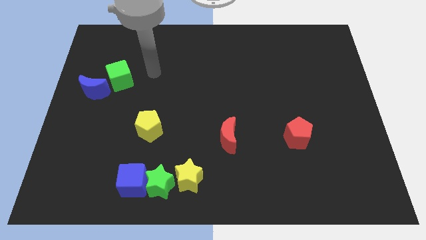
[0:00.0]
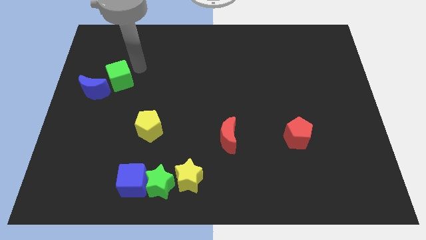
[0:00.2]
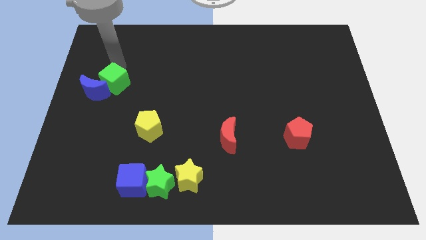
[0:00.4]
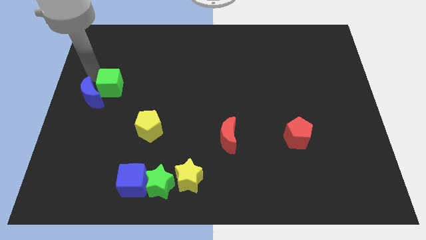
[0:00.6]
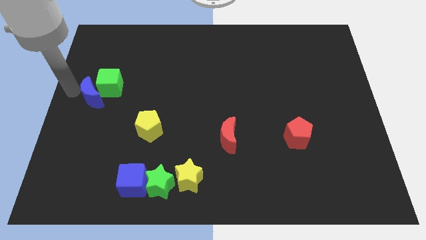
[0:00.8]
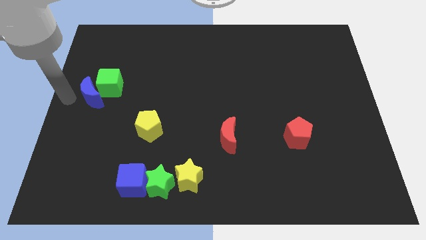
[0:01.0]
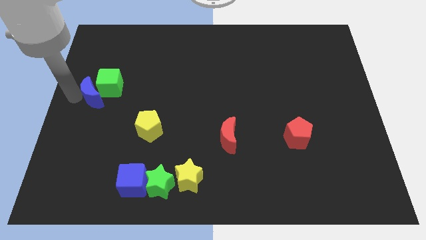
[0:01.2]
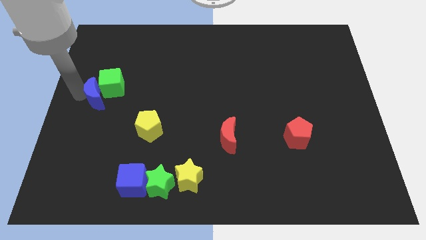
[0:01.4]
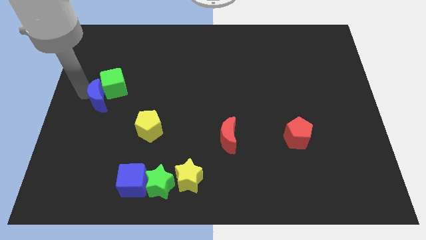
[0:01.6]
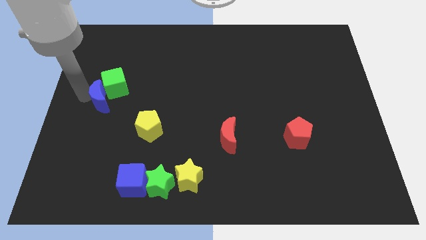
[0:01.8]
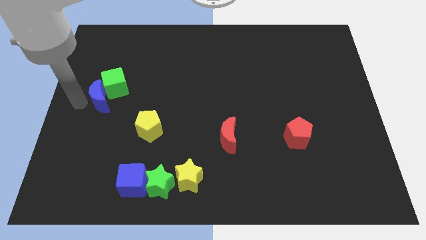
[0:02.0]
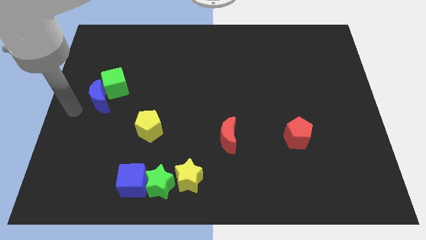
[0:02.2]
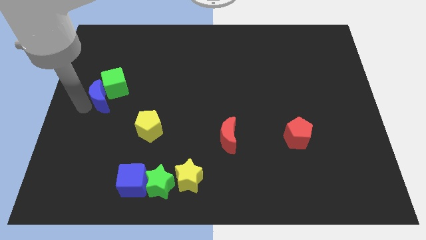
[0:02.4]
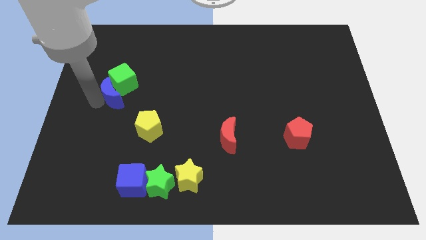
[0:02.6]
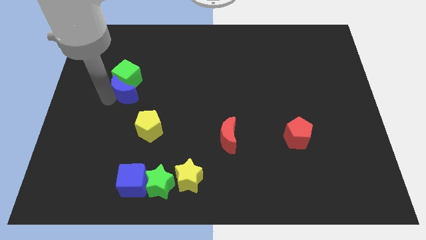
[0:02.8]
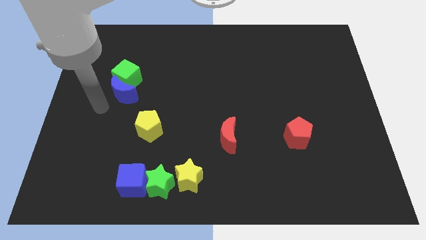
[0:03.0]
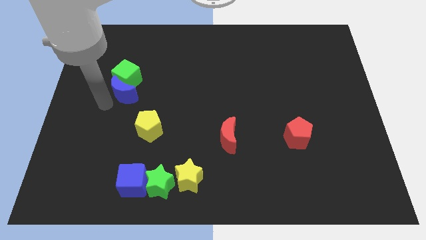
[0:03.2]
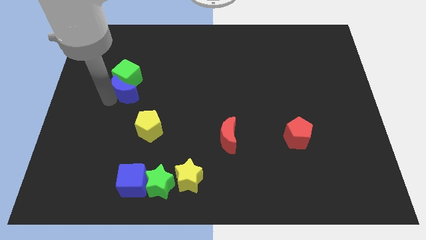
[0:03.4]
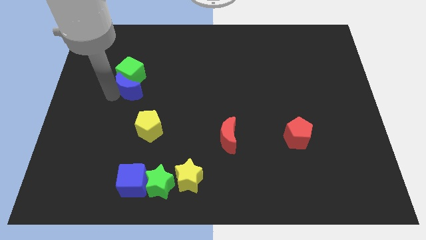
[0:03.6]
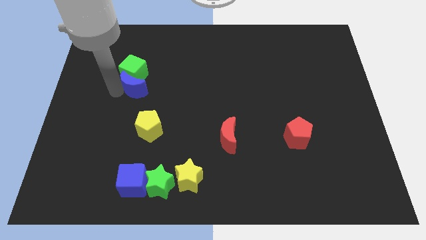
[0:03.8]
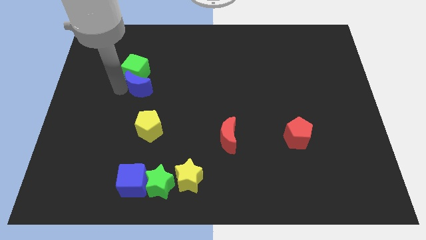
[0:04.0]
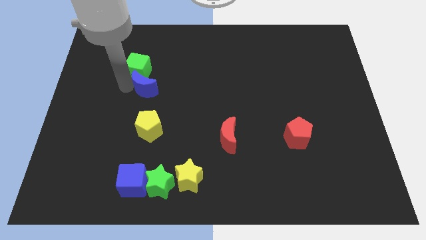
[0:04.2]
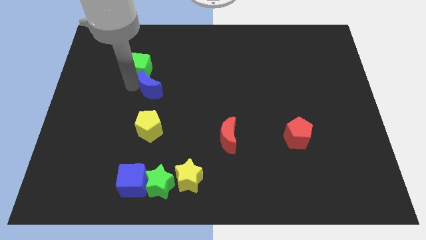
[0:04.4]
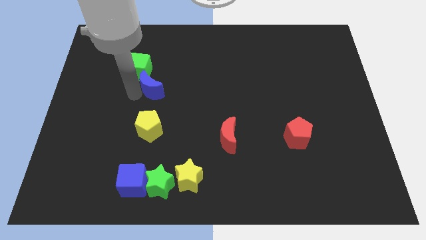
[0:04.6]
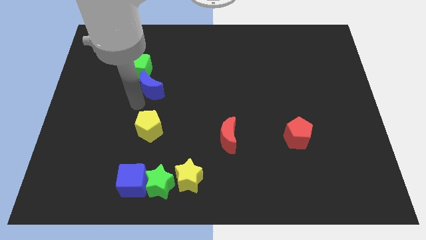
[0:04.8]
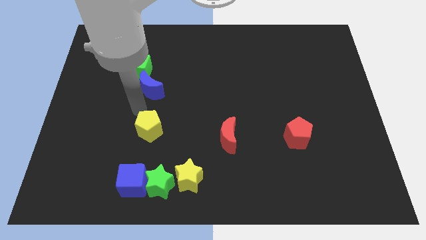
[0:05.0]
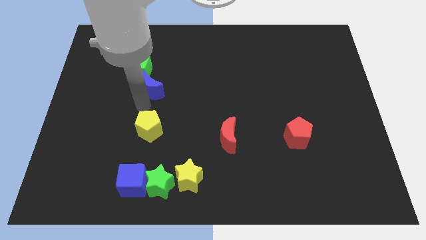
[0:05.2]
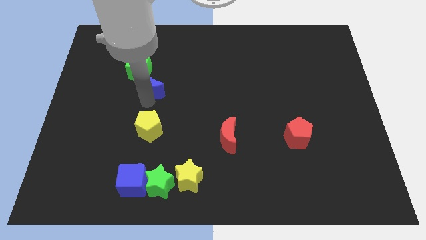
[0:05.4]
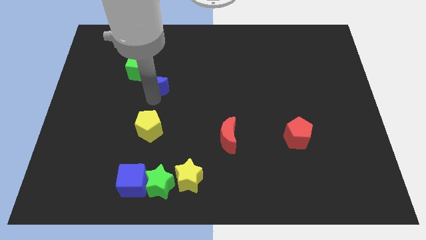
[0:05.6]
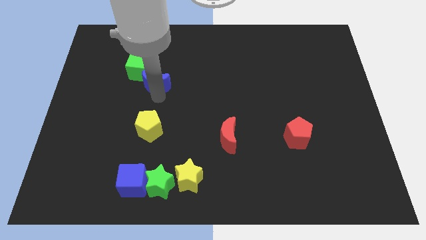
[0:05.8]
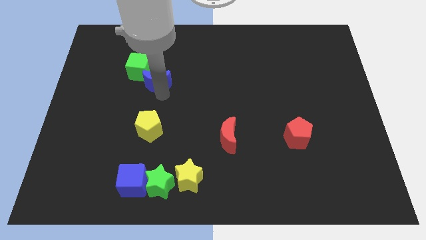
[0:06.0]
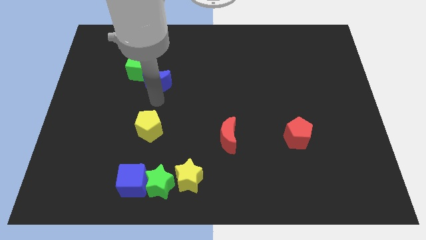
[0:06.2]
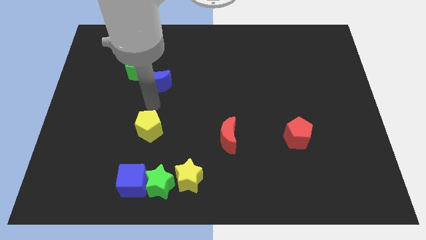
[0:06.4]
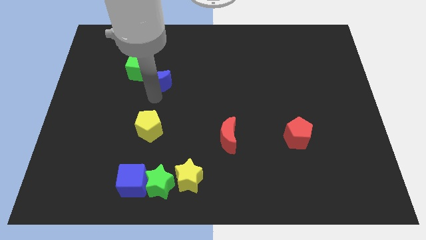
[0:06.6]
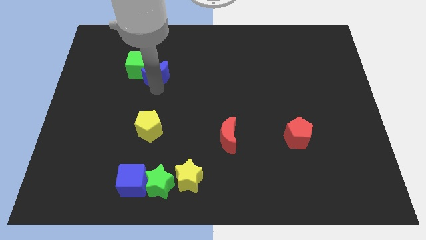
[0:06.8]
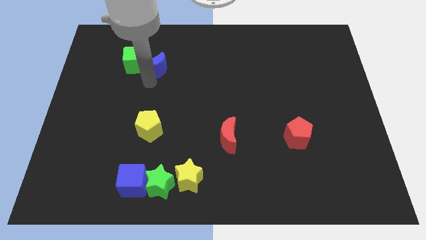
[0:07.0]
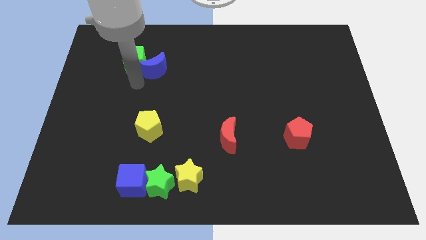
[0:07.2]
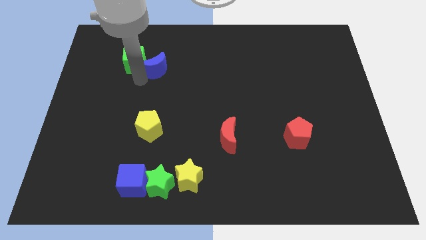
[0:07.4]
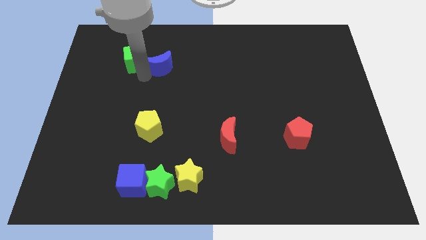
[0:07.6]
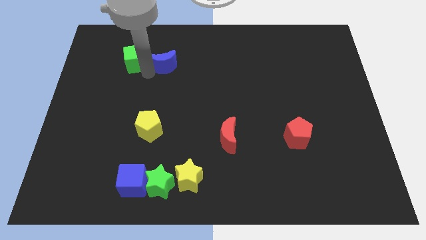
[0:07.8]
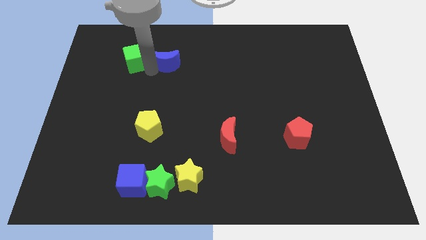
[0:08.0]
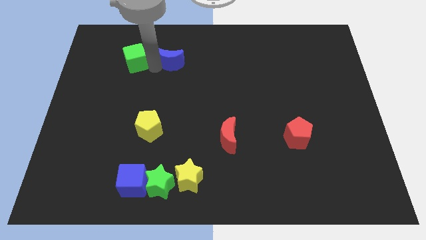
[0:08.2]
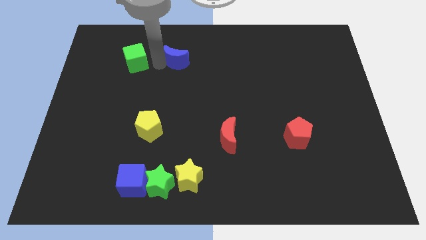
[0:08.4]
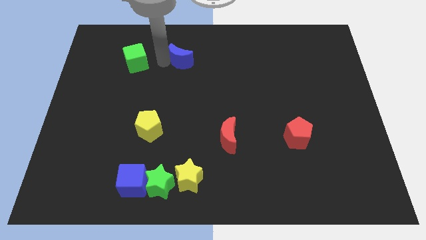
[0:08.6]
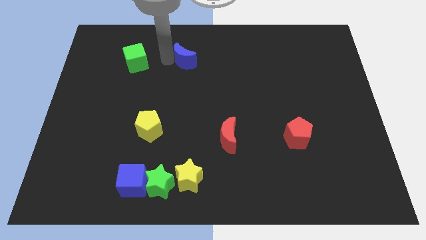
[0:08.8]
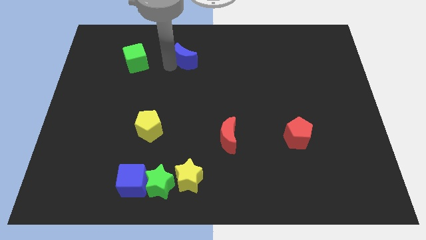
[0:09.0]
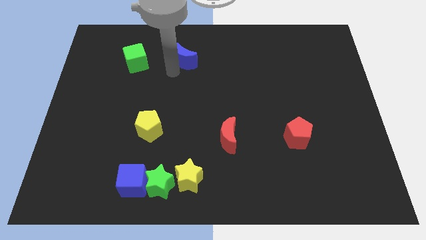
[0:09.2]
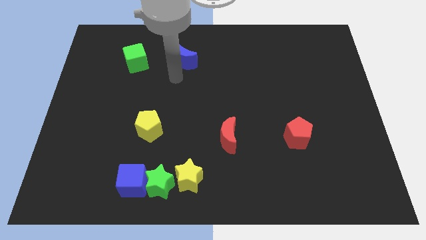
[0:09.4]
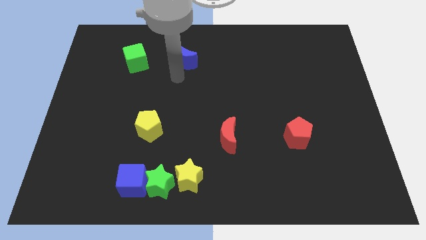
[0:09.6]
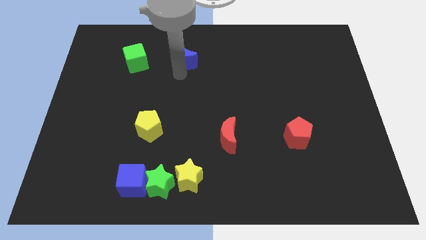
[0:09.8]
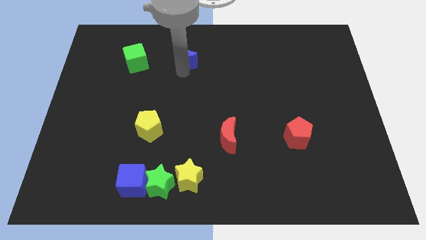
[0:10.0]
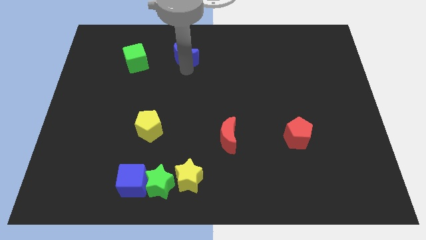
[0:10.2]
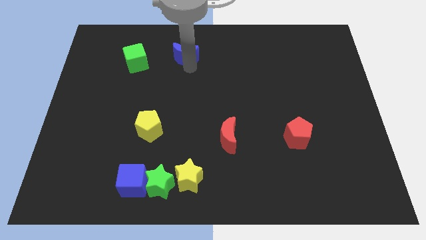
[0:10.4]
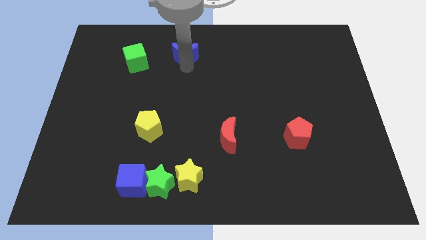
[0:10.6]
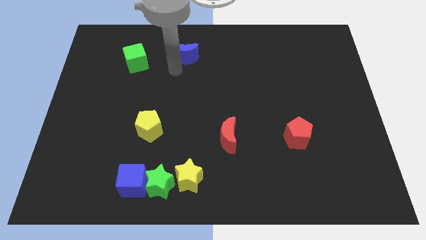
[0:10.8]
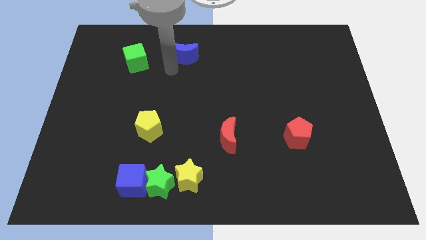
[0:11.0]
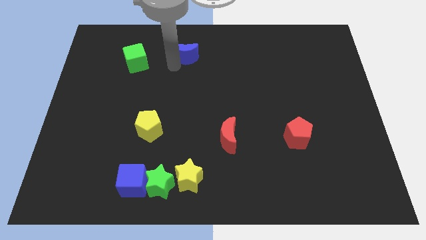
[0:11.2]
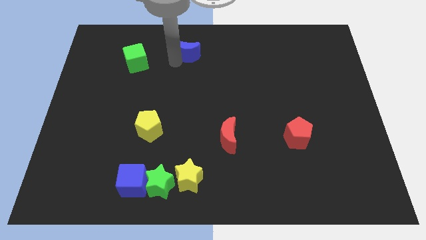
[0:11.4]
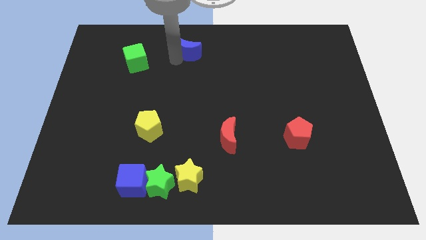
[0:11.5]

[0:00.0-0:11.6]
push the blue moon to the top
